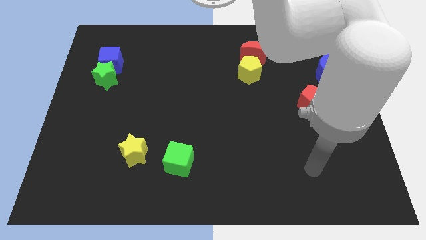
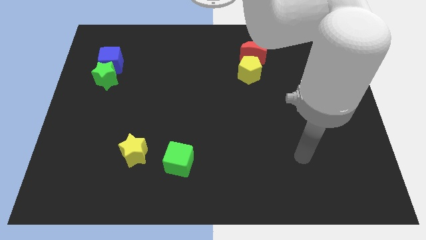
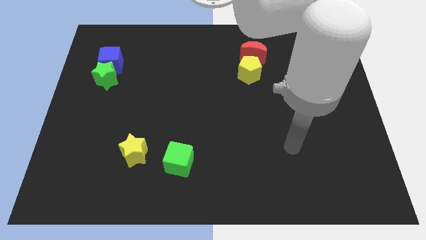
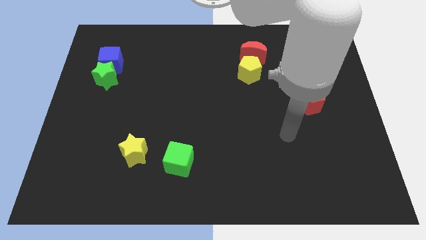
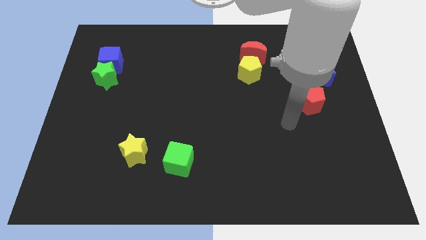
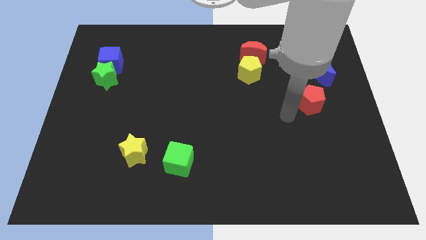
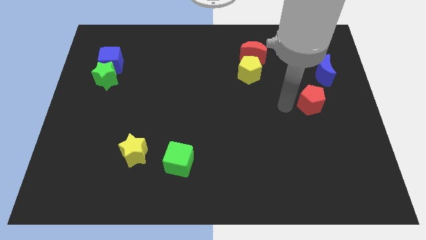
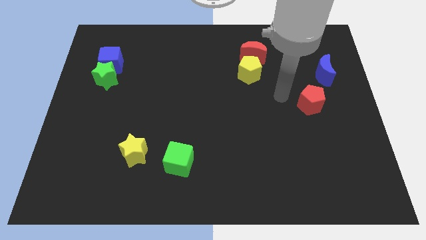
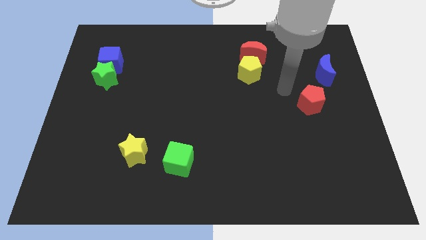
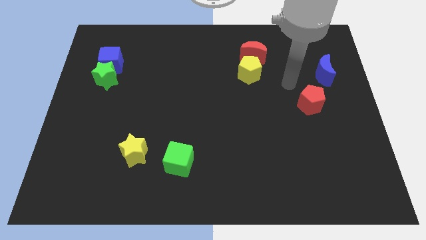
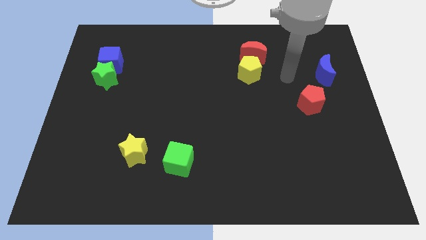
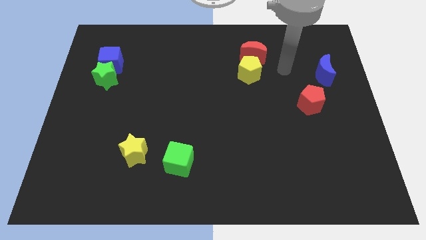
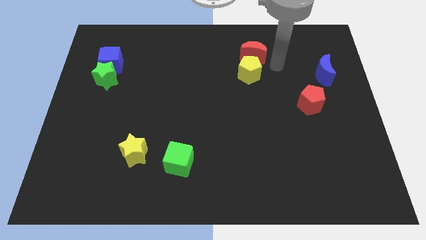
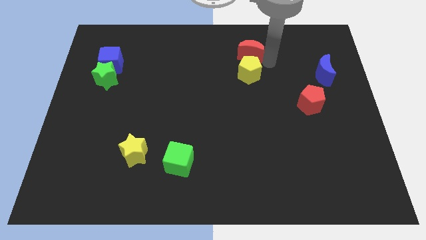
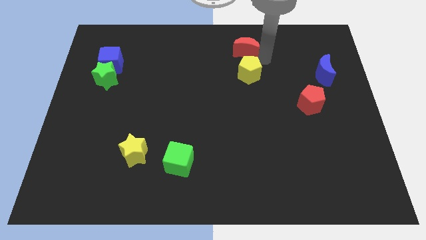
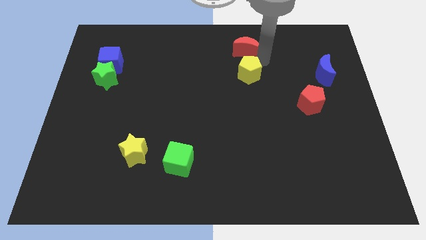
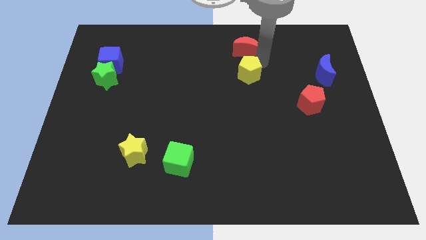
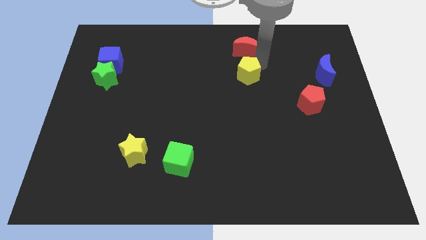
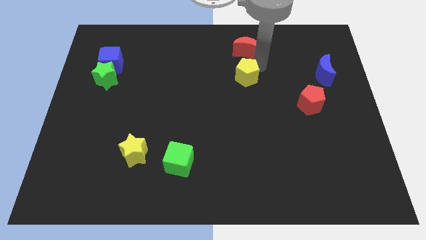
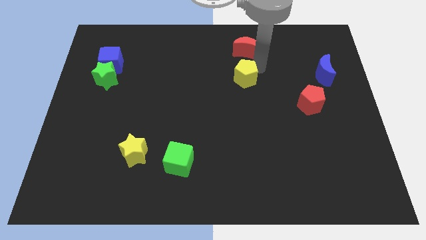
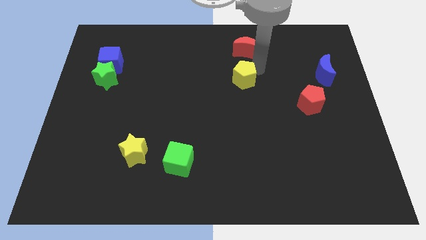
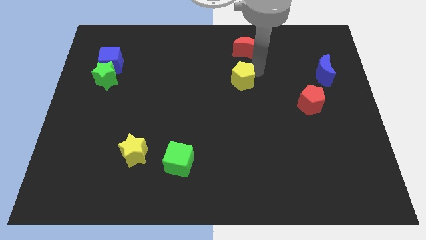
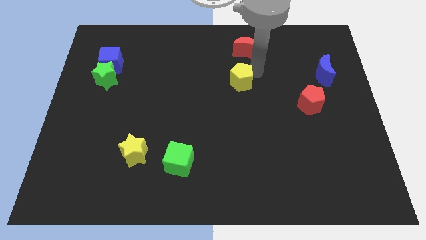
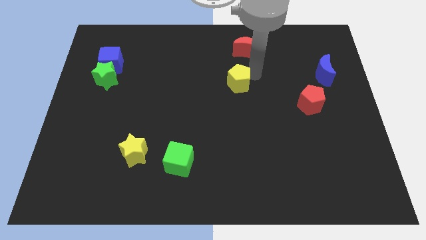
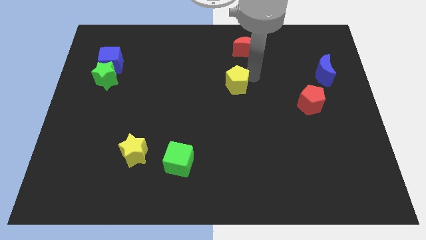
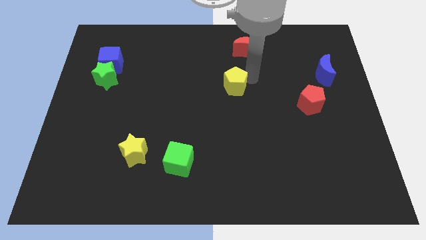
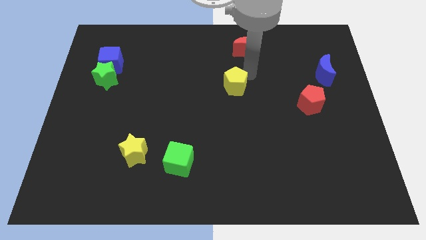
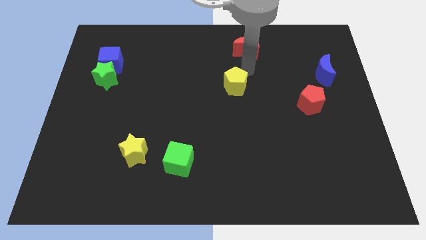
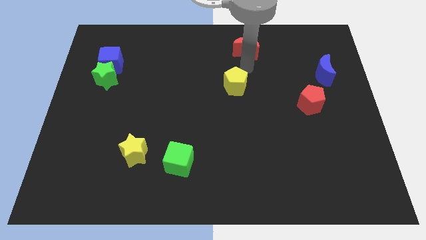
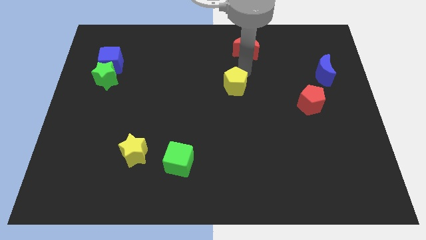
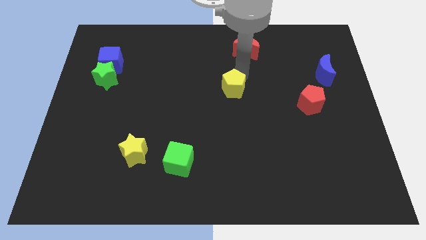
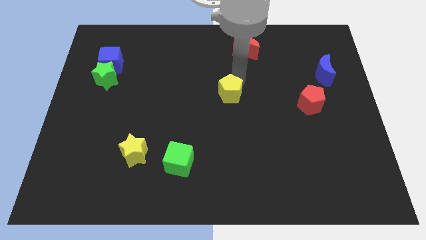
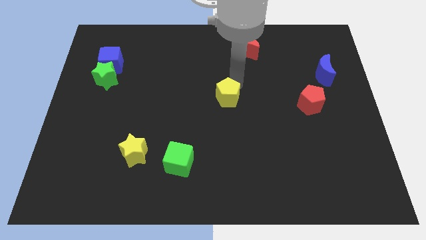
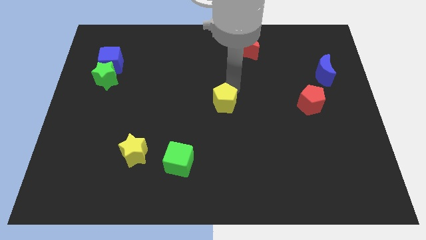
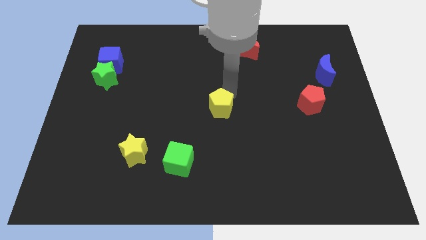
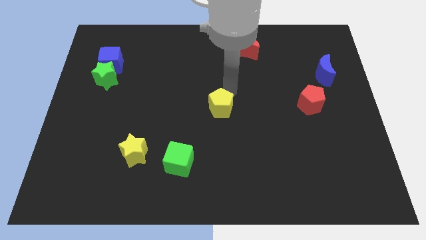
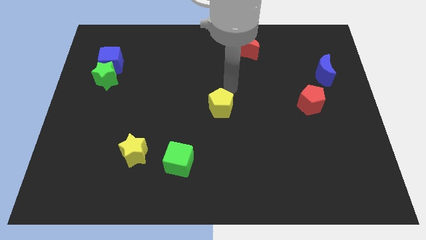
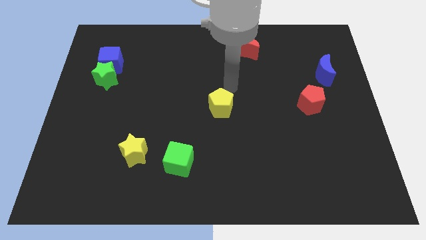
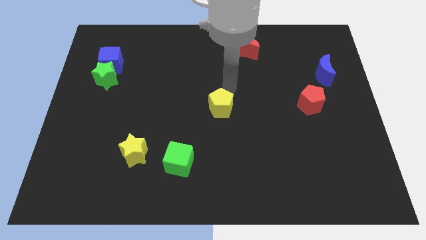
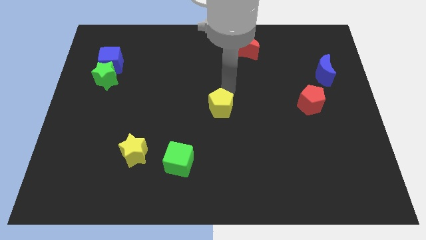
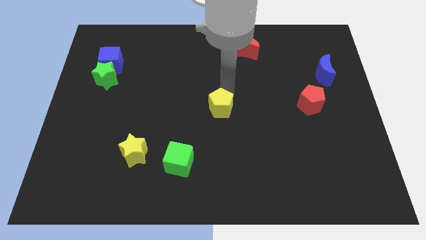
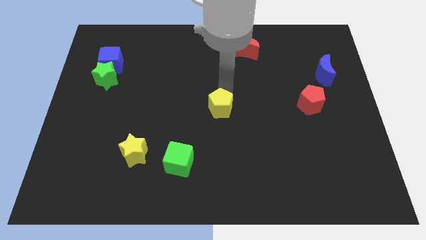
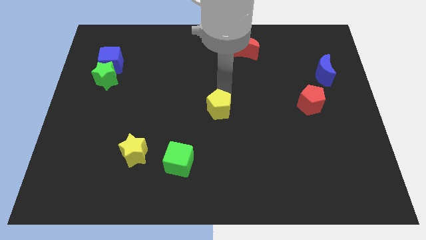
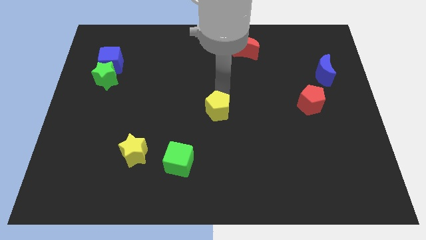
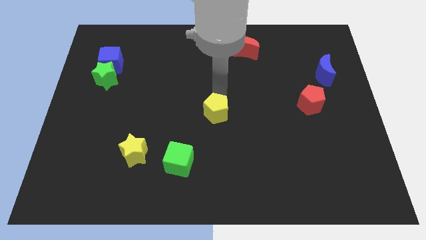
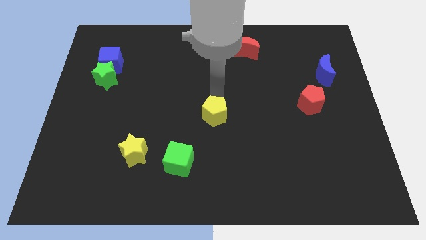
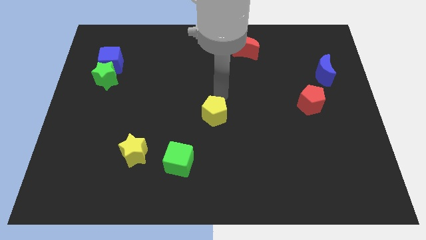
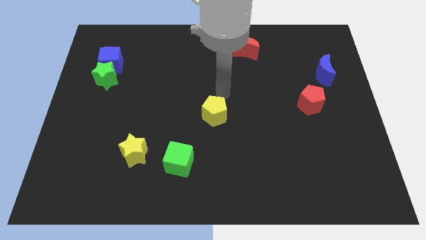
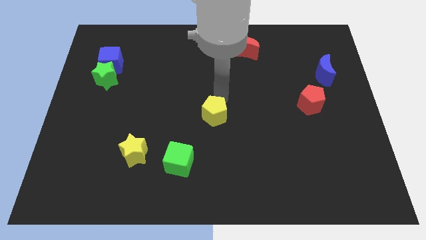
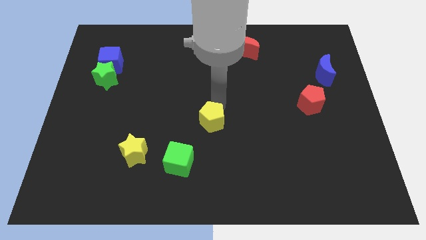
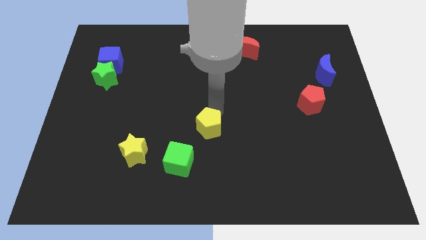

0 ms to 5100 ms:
move the yellow pentagon diagonally up and to the right of the green cube

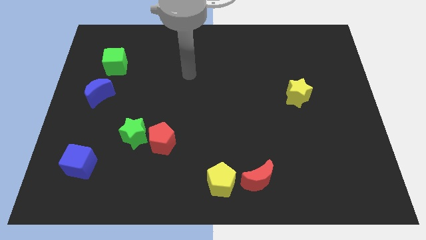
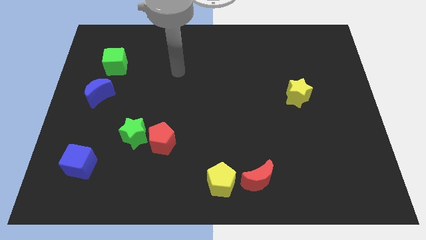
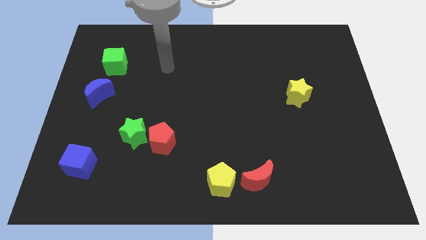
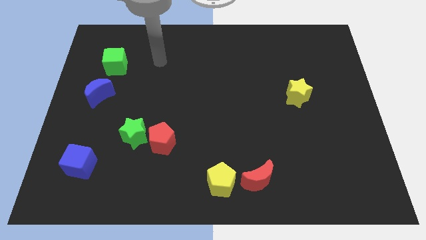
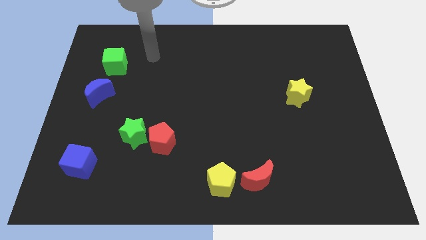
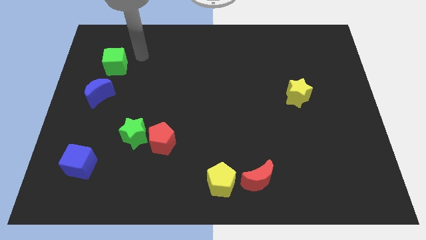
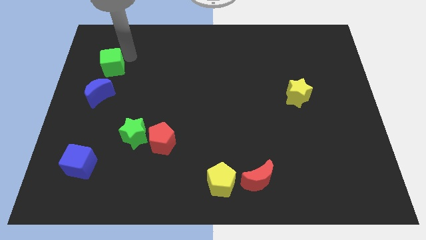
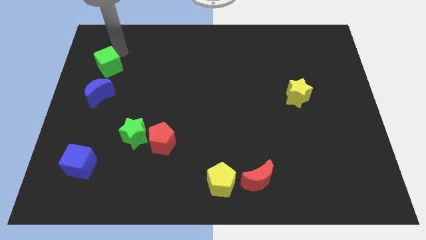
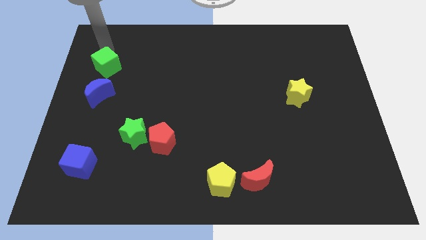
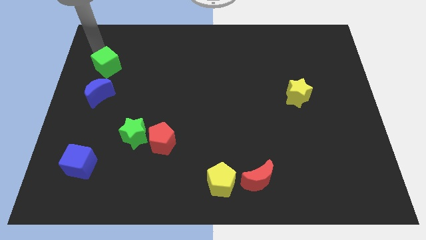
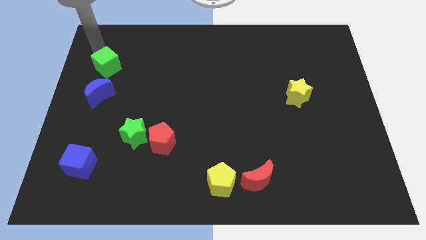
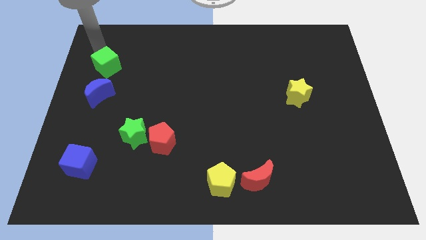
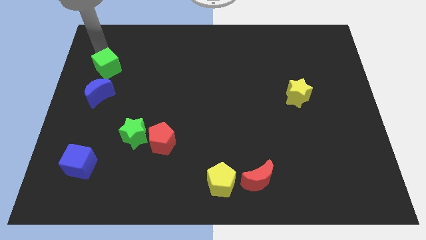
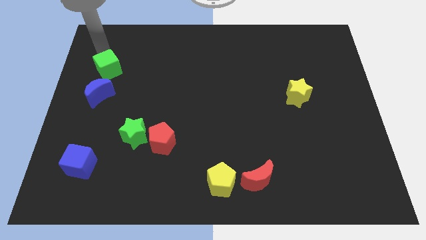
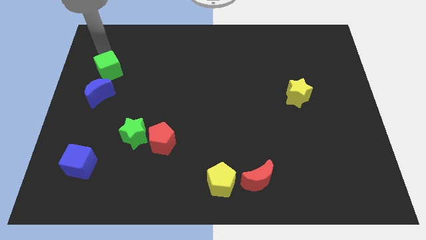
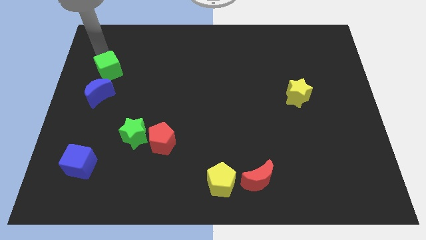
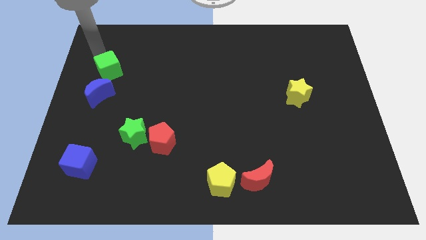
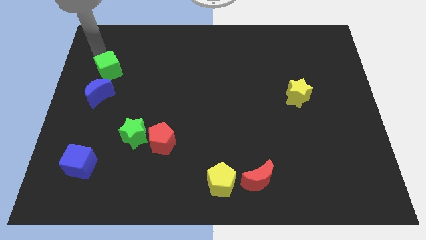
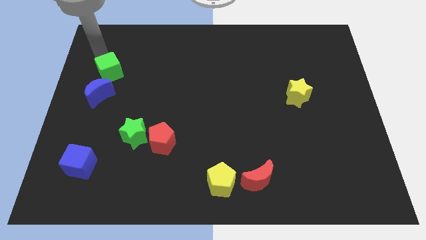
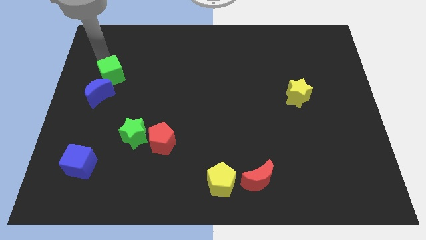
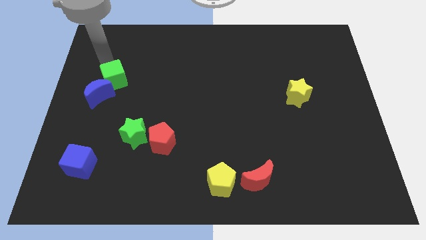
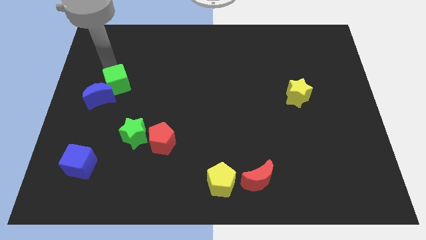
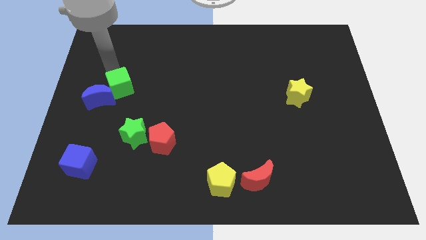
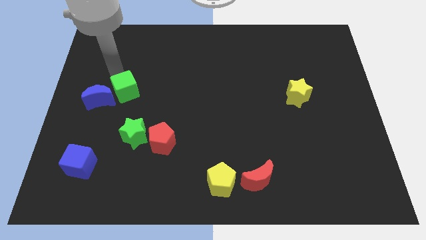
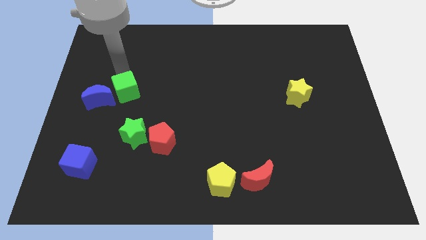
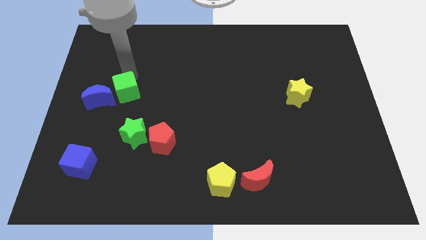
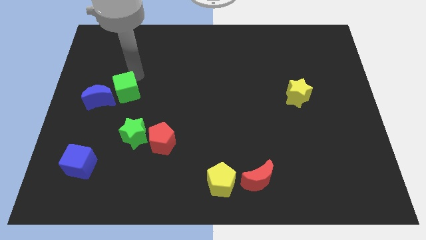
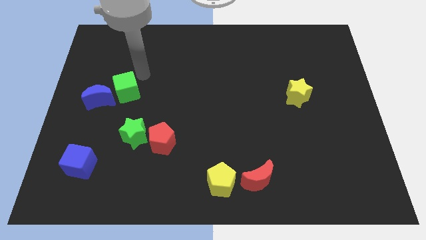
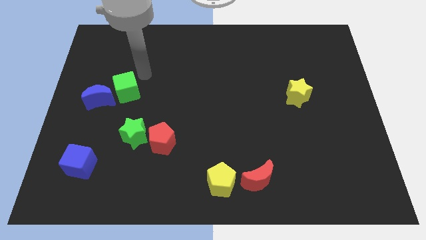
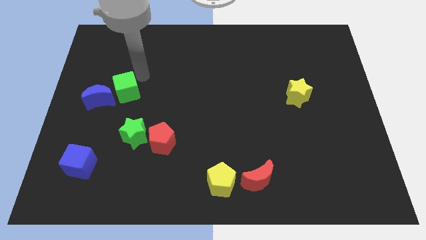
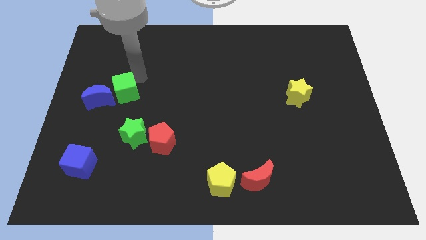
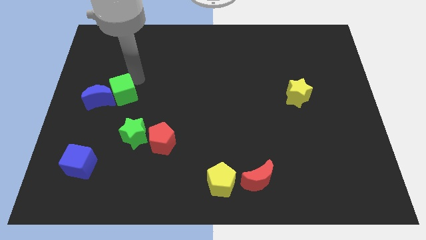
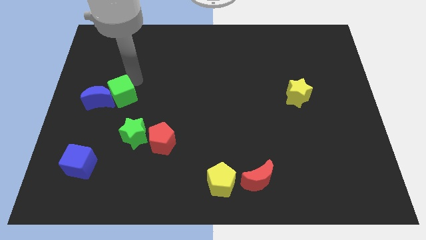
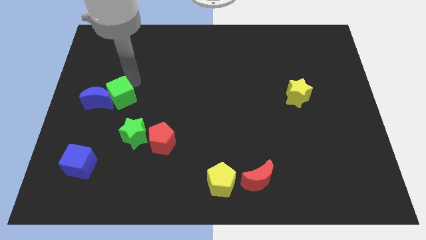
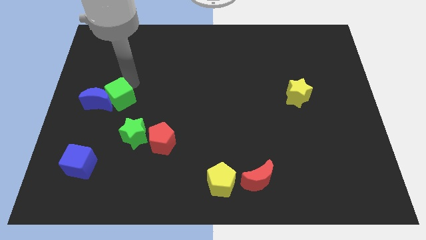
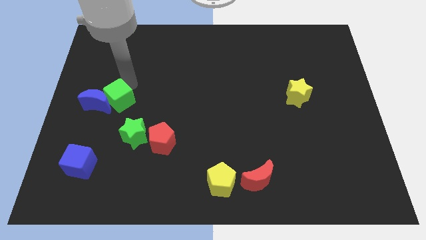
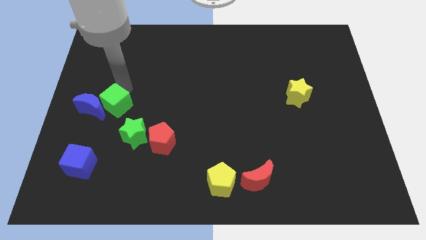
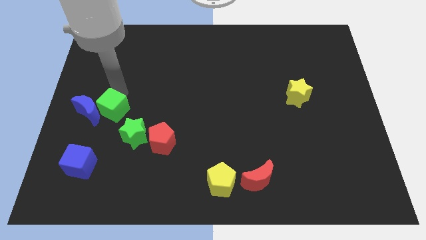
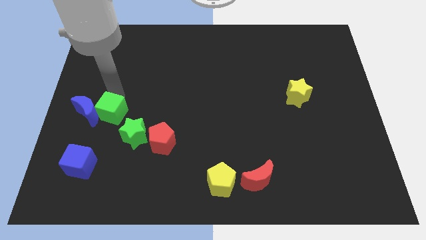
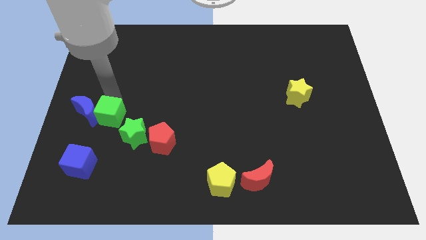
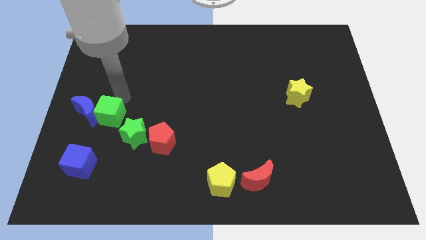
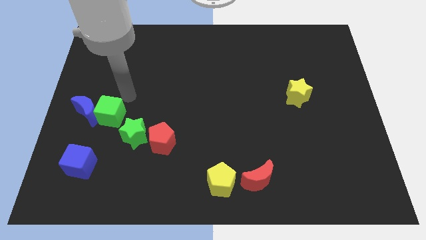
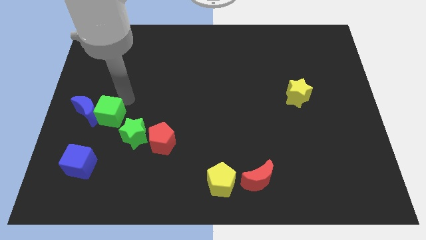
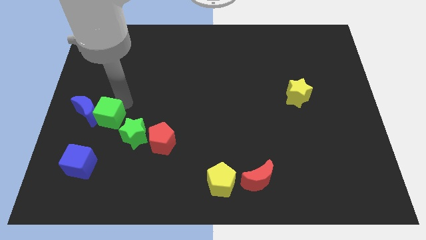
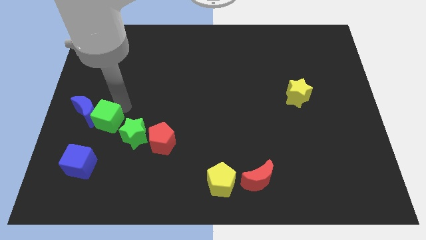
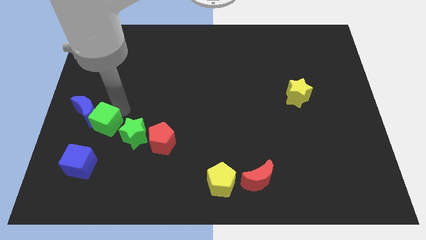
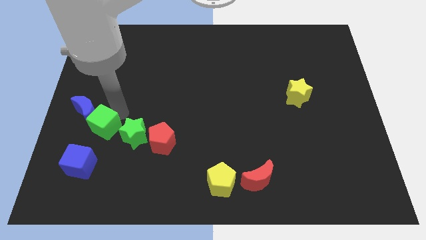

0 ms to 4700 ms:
move the green cube to the bottom of the blue moon
